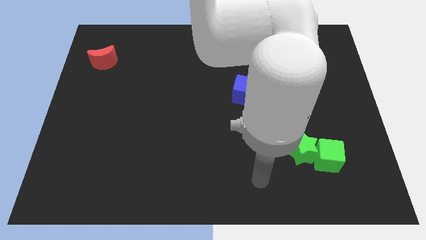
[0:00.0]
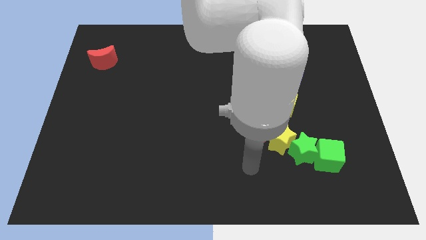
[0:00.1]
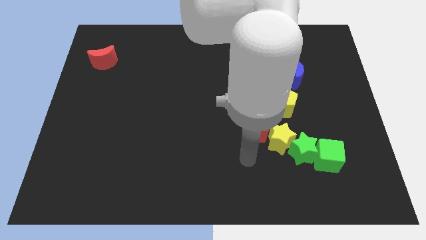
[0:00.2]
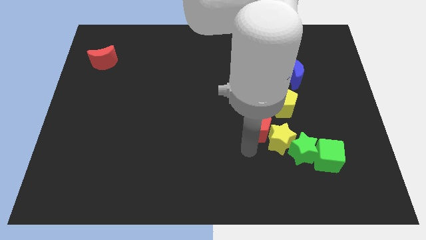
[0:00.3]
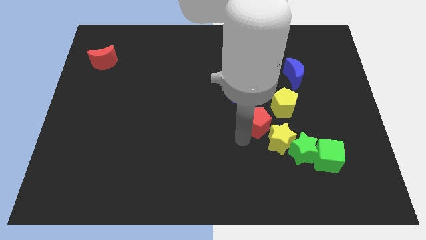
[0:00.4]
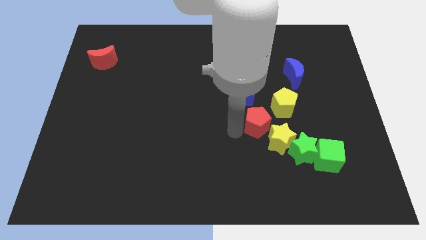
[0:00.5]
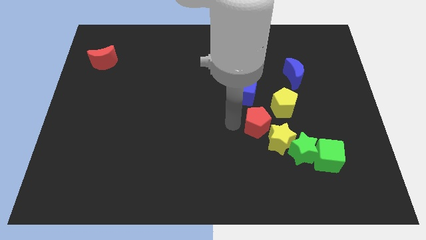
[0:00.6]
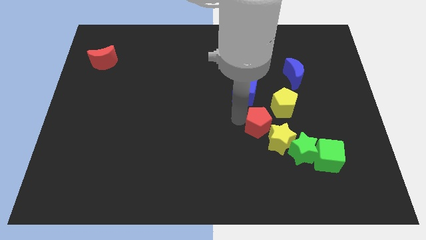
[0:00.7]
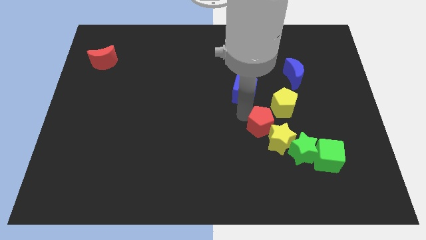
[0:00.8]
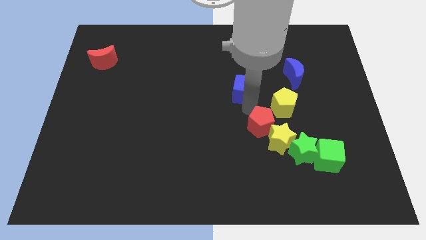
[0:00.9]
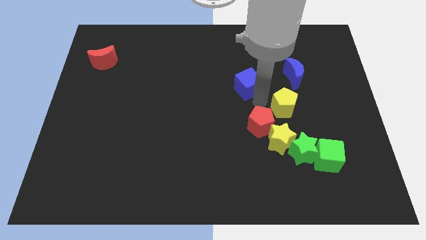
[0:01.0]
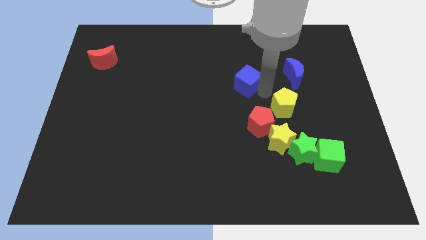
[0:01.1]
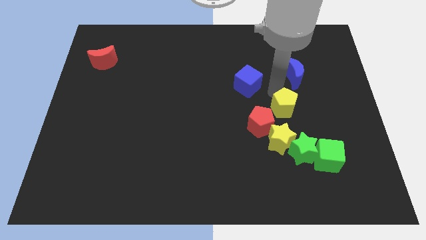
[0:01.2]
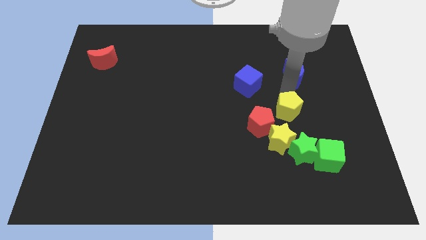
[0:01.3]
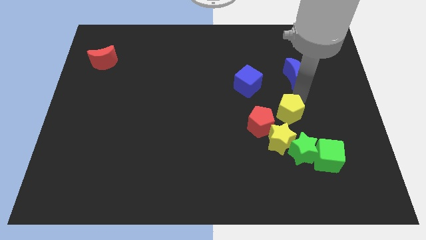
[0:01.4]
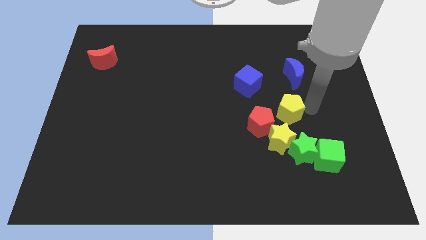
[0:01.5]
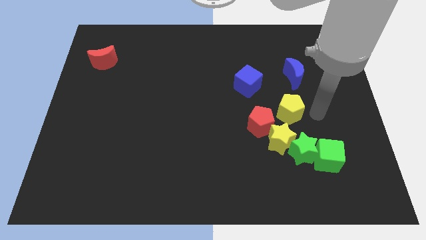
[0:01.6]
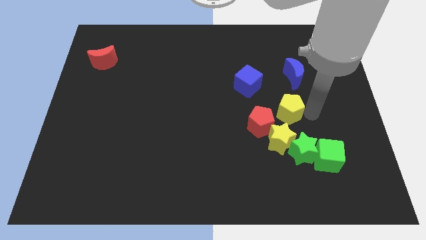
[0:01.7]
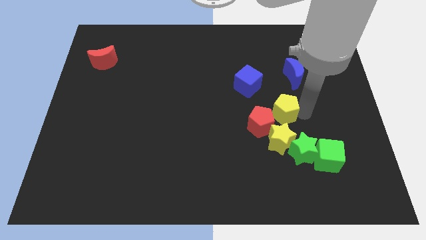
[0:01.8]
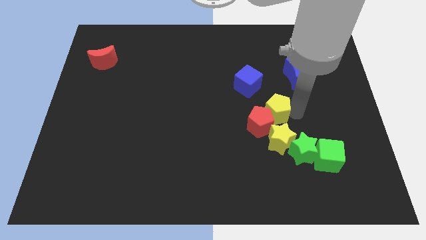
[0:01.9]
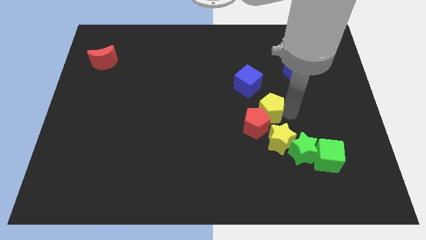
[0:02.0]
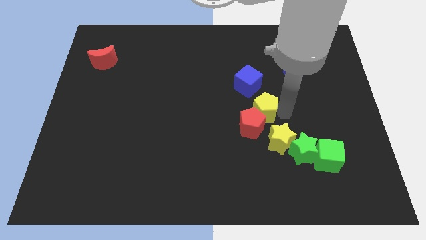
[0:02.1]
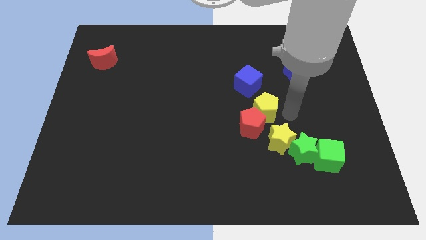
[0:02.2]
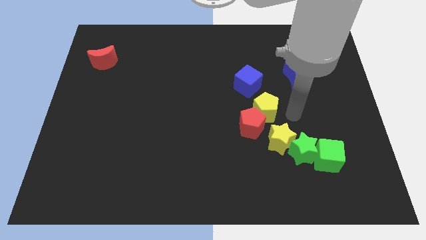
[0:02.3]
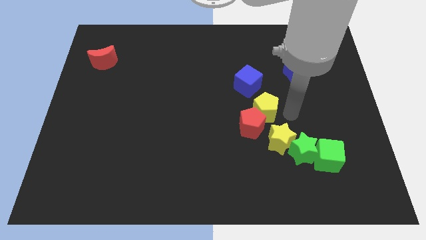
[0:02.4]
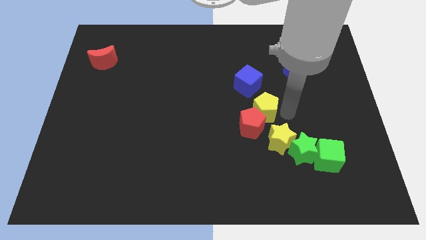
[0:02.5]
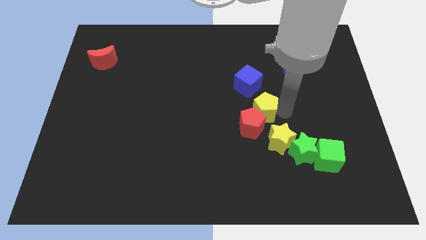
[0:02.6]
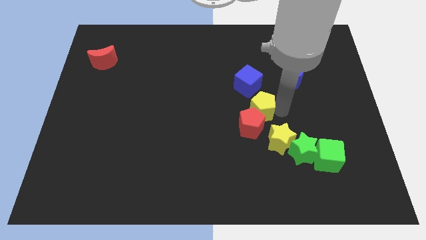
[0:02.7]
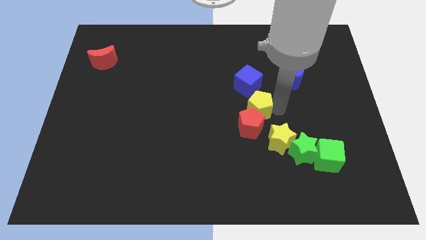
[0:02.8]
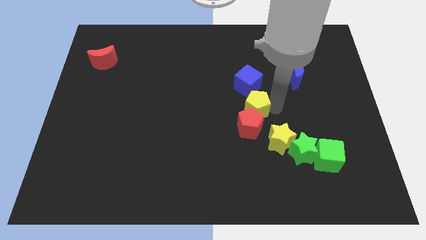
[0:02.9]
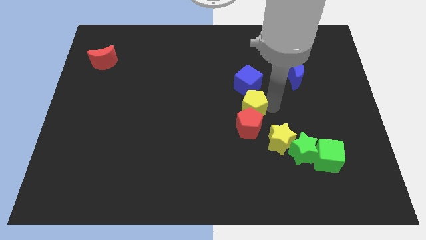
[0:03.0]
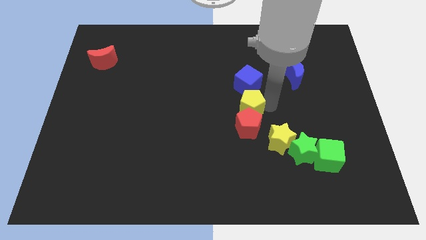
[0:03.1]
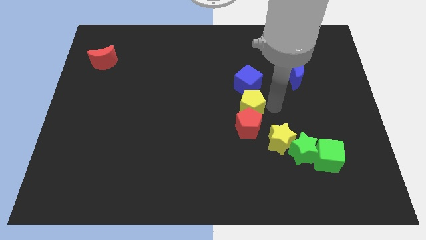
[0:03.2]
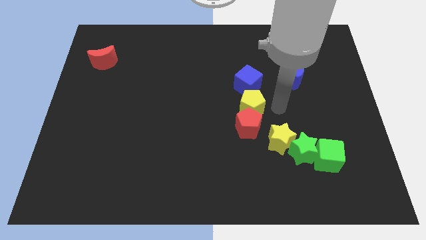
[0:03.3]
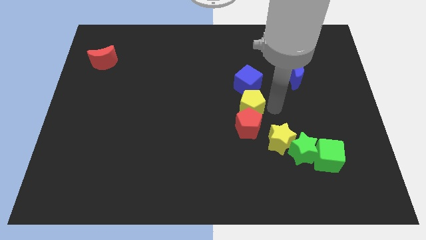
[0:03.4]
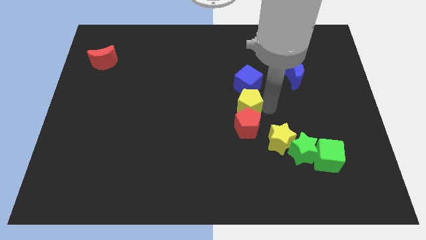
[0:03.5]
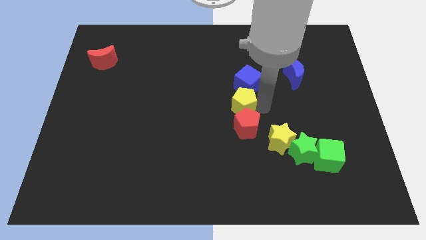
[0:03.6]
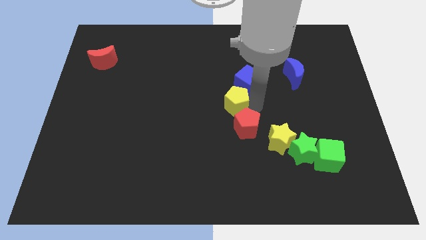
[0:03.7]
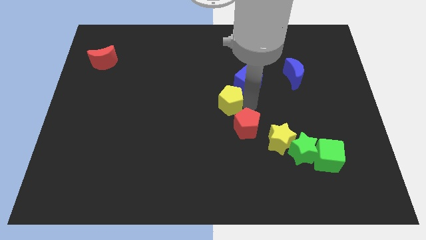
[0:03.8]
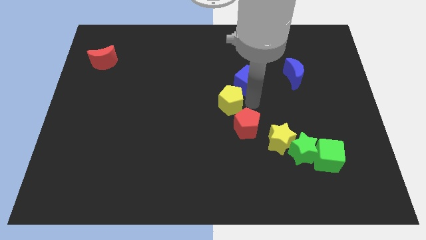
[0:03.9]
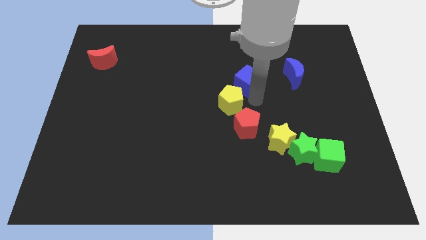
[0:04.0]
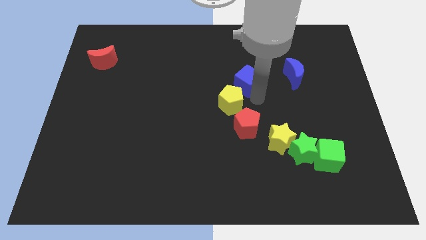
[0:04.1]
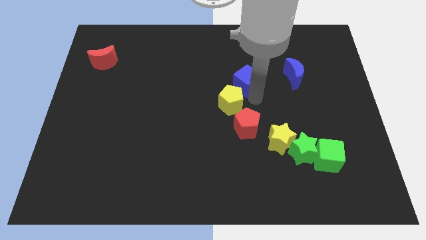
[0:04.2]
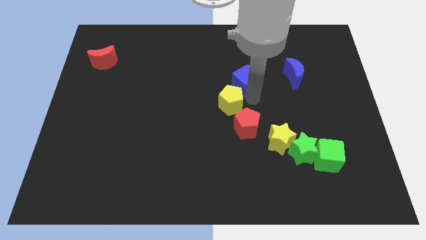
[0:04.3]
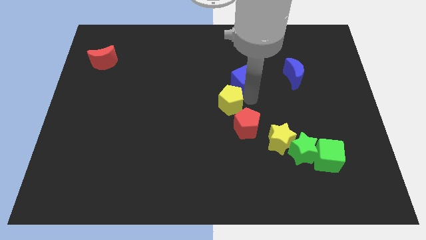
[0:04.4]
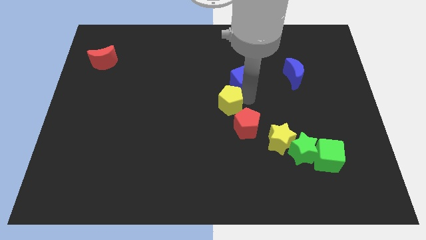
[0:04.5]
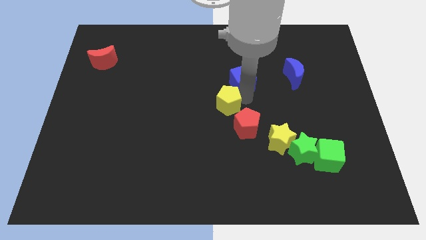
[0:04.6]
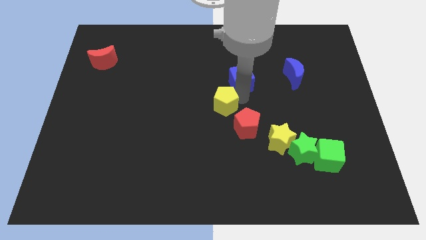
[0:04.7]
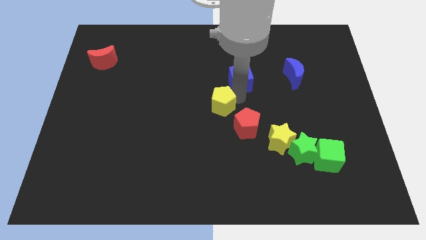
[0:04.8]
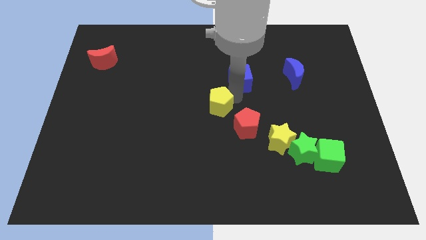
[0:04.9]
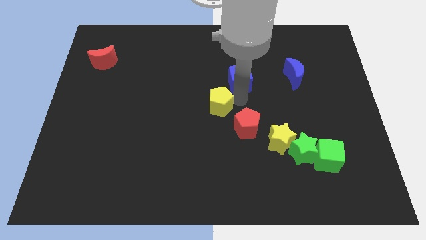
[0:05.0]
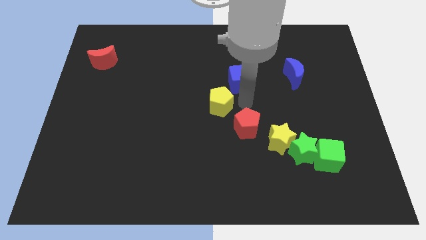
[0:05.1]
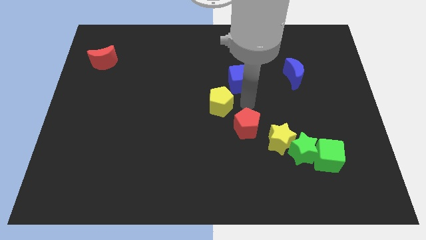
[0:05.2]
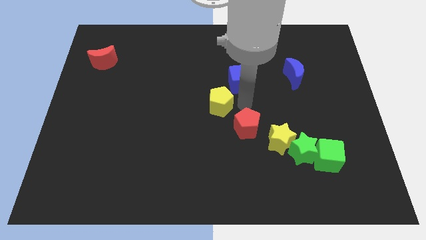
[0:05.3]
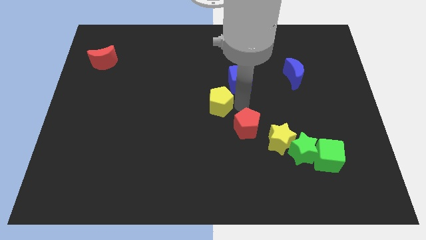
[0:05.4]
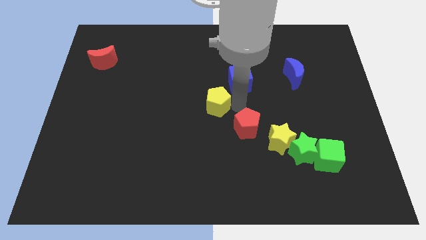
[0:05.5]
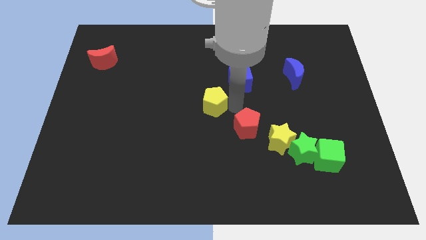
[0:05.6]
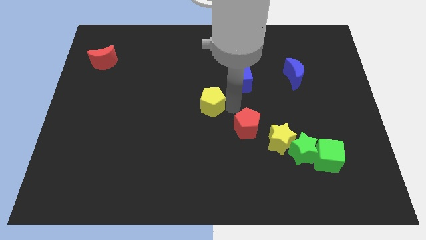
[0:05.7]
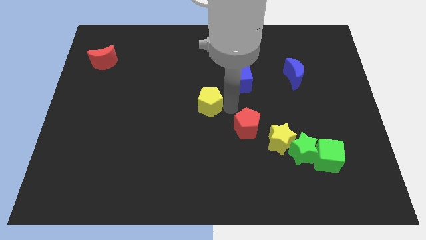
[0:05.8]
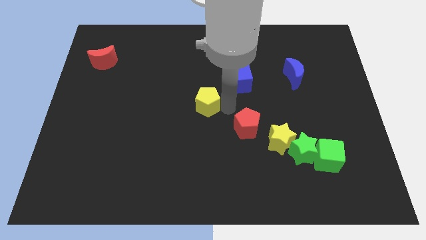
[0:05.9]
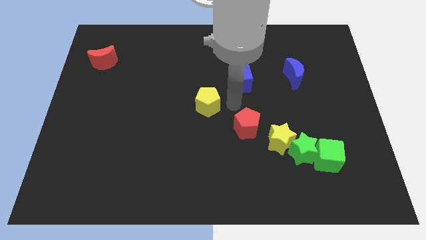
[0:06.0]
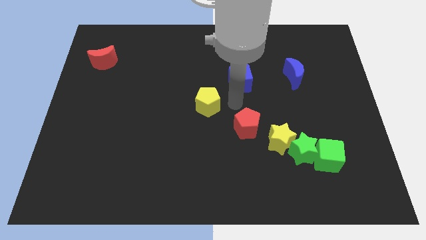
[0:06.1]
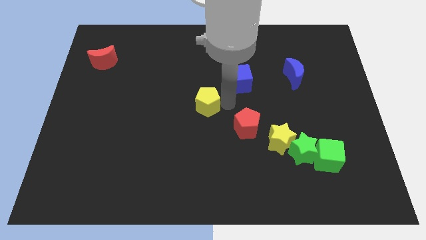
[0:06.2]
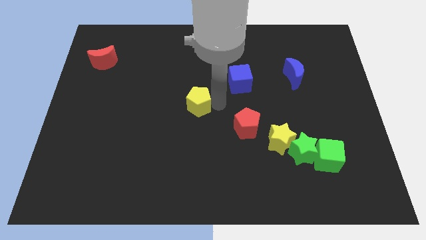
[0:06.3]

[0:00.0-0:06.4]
move the yellow pentagon to the left

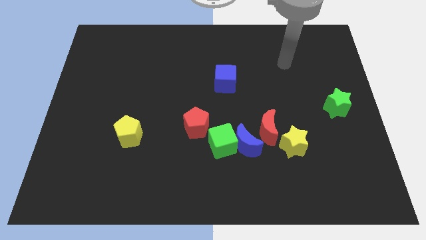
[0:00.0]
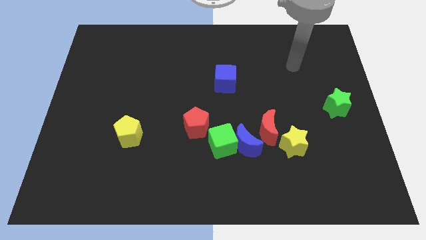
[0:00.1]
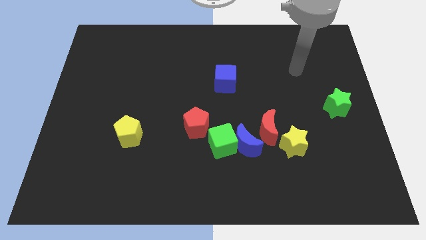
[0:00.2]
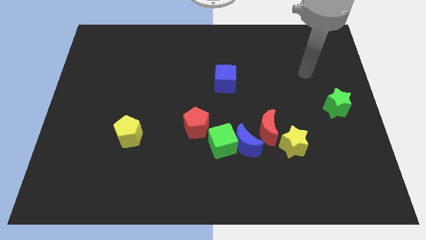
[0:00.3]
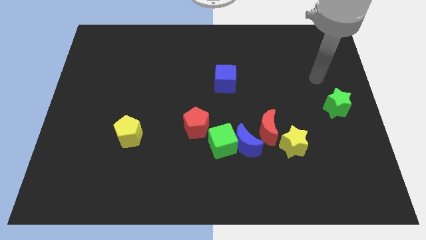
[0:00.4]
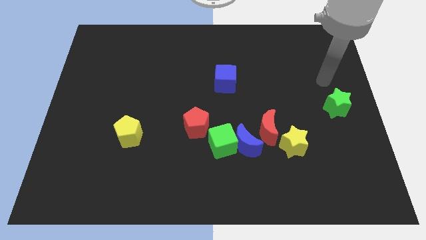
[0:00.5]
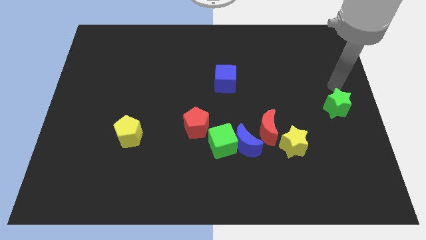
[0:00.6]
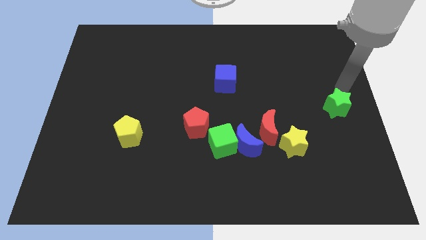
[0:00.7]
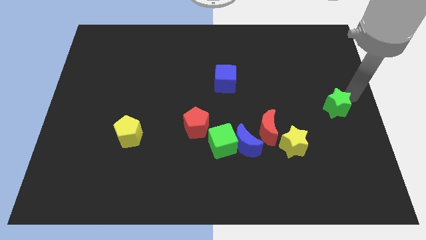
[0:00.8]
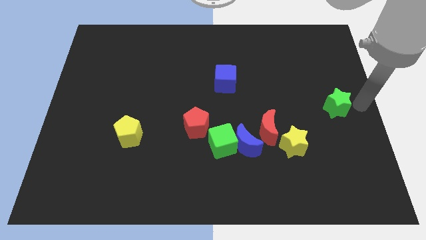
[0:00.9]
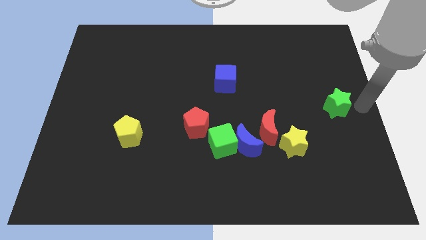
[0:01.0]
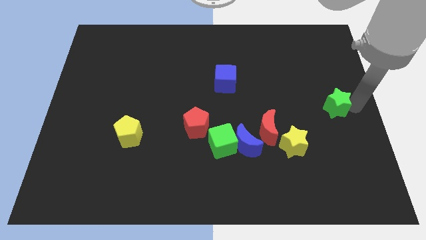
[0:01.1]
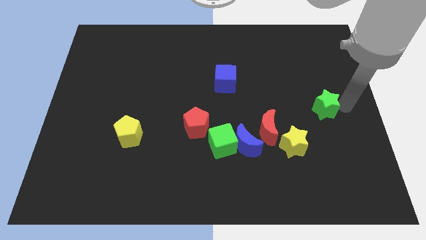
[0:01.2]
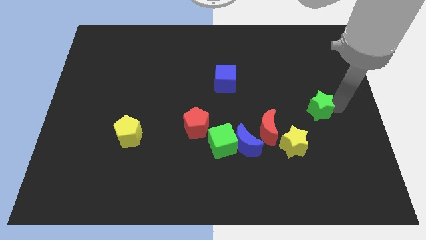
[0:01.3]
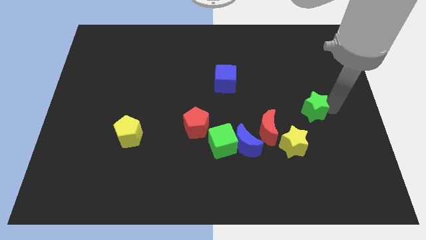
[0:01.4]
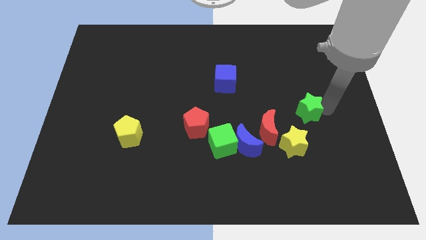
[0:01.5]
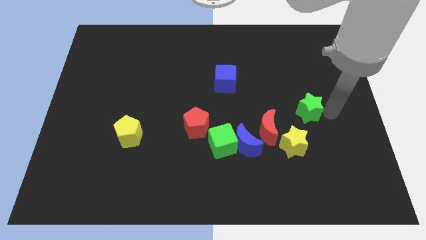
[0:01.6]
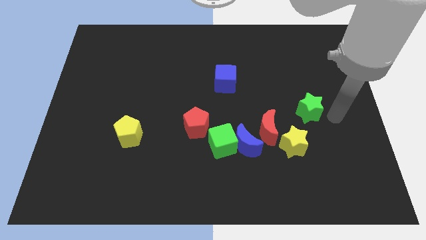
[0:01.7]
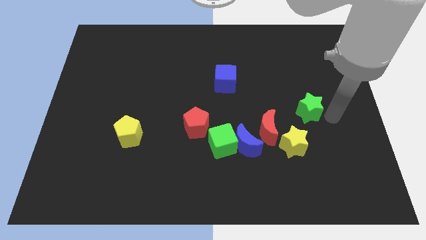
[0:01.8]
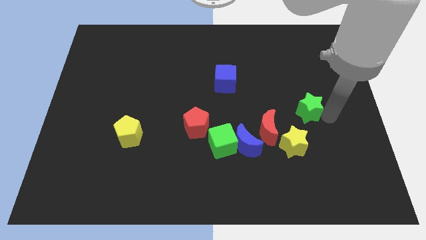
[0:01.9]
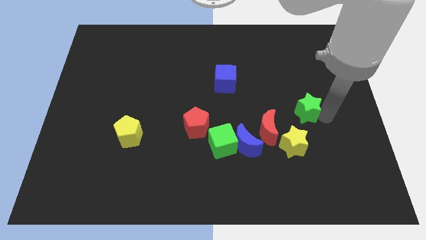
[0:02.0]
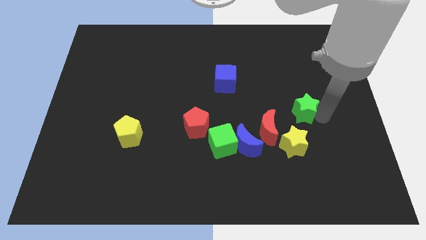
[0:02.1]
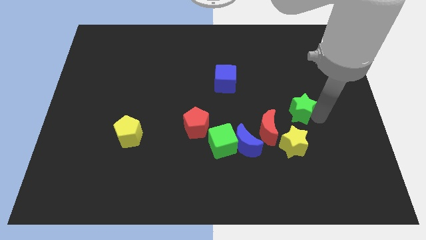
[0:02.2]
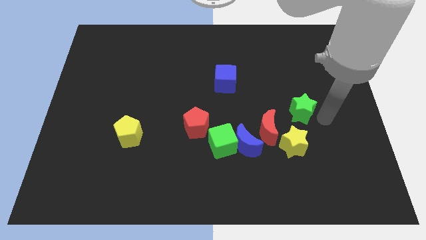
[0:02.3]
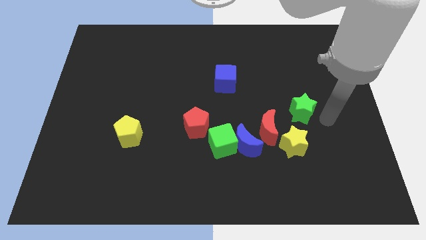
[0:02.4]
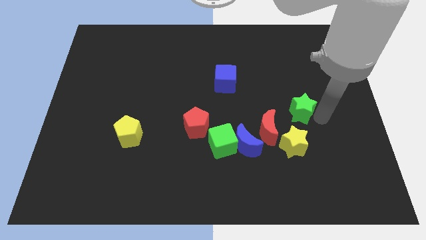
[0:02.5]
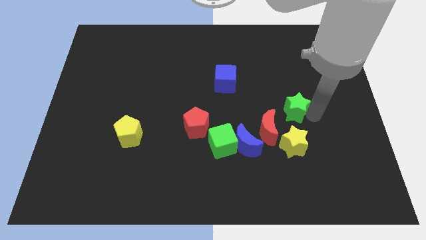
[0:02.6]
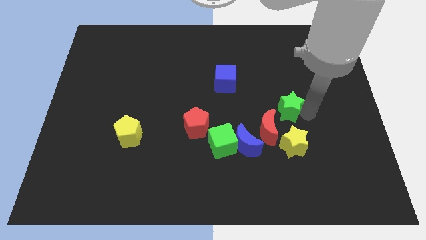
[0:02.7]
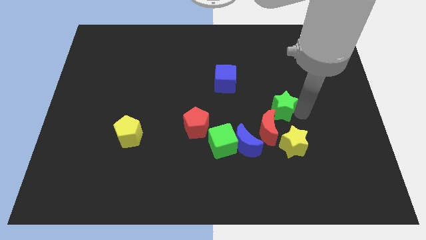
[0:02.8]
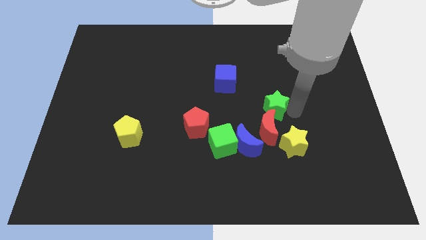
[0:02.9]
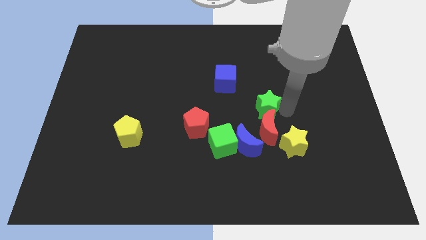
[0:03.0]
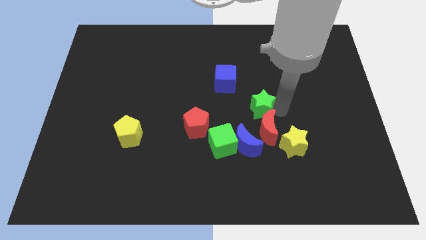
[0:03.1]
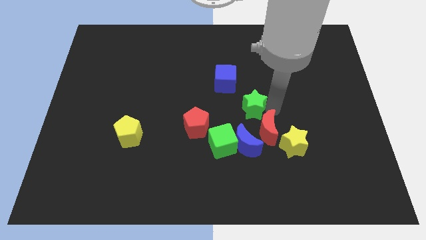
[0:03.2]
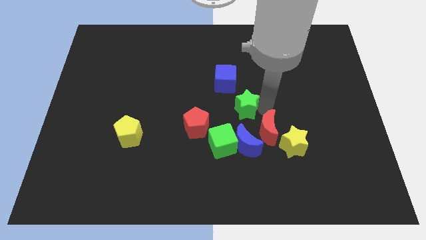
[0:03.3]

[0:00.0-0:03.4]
move the green star to the left
